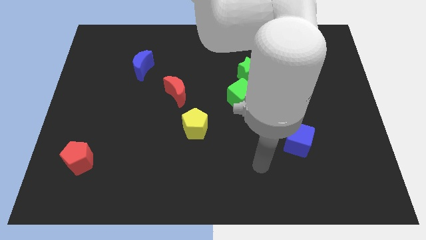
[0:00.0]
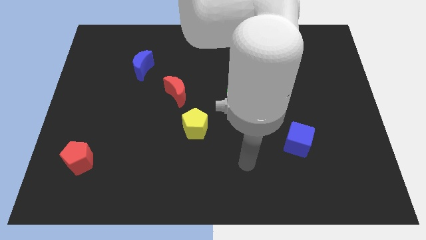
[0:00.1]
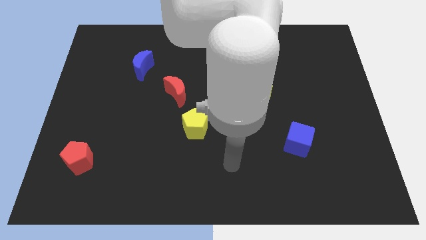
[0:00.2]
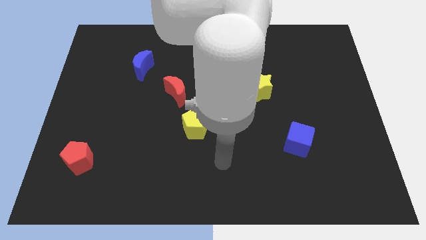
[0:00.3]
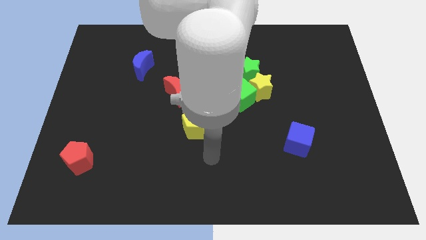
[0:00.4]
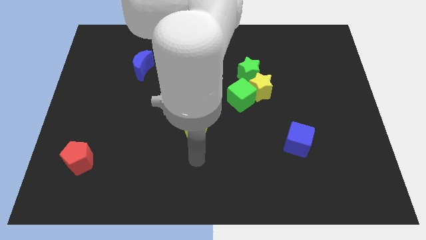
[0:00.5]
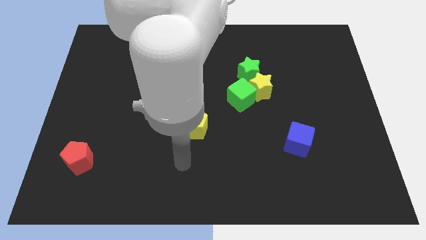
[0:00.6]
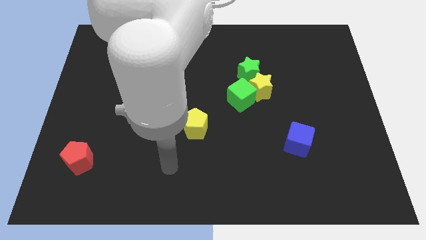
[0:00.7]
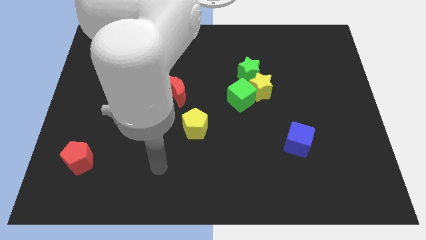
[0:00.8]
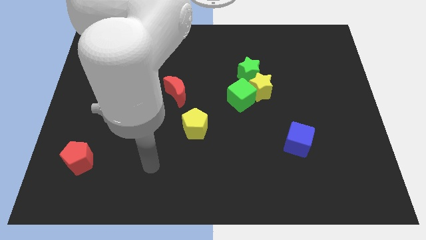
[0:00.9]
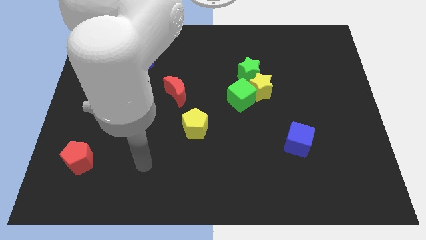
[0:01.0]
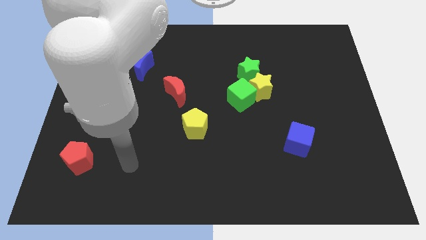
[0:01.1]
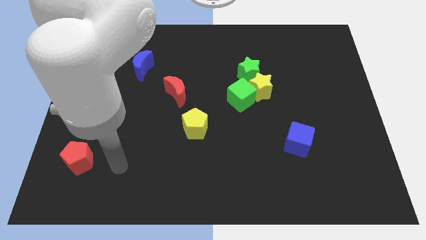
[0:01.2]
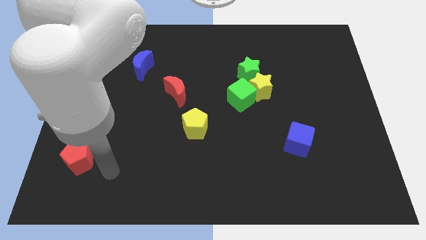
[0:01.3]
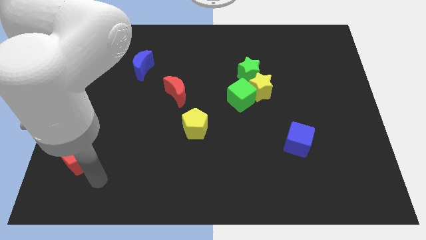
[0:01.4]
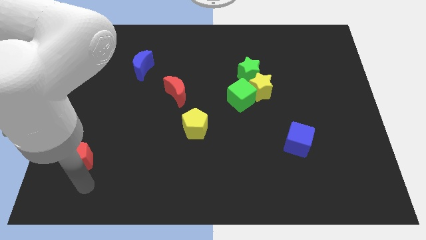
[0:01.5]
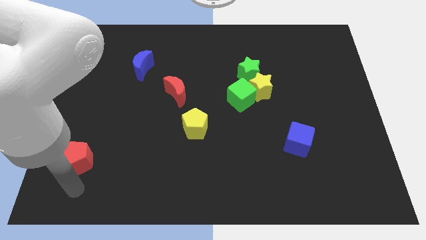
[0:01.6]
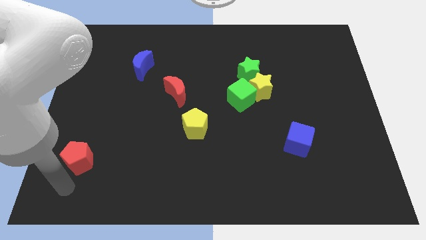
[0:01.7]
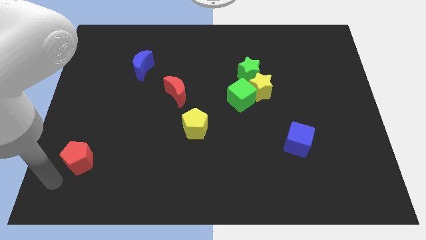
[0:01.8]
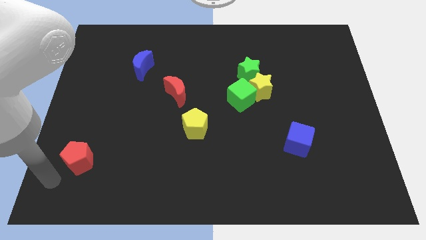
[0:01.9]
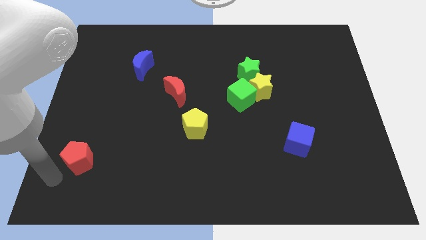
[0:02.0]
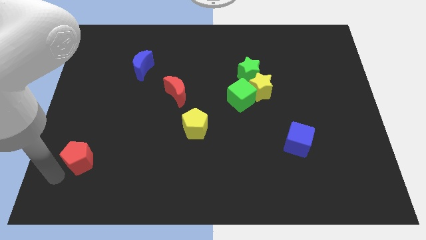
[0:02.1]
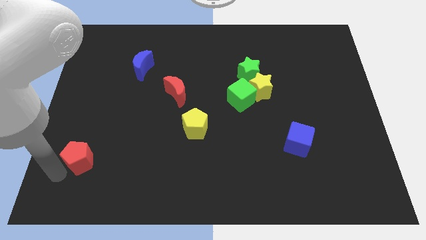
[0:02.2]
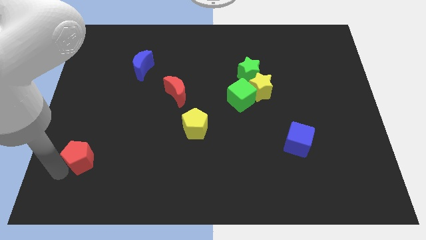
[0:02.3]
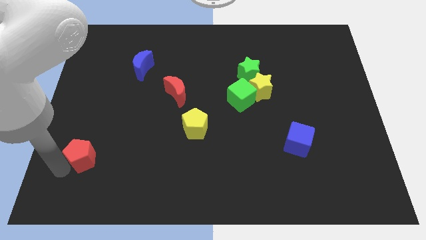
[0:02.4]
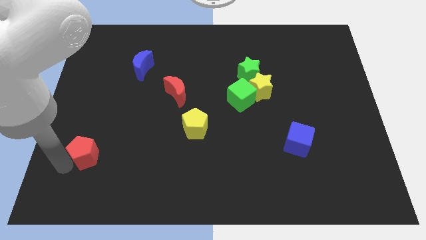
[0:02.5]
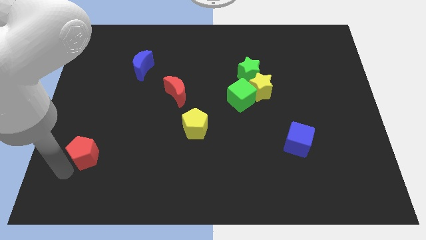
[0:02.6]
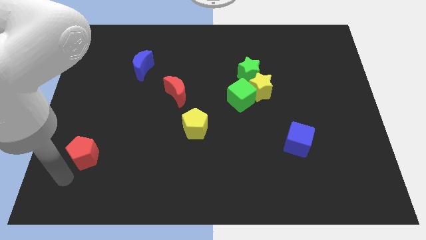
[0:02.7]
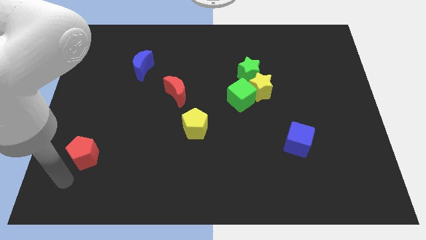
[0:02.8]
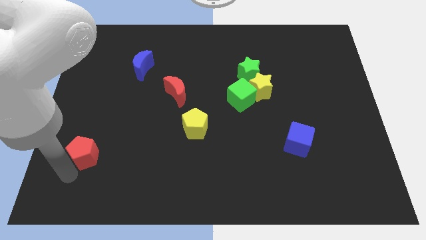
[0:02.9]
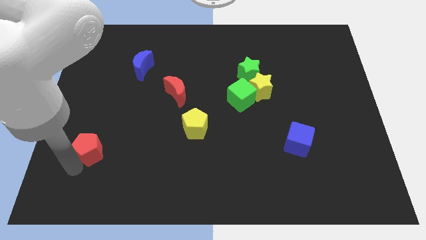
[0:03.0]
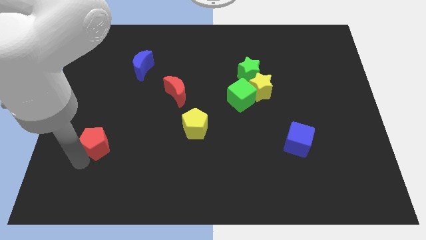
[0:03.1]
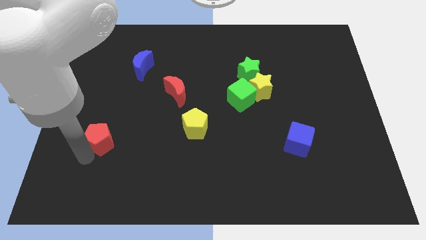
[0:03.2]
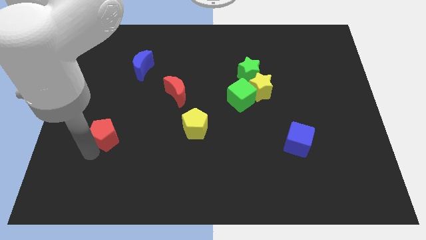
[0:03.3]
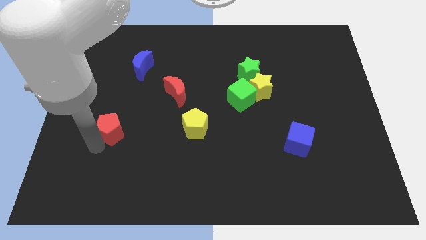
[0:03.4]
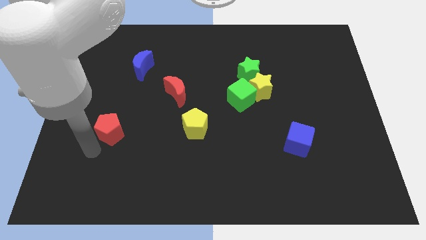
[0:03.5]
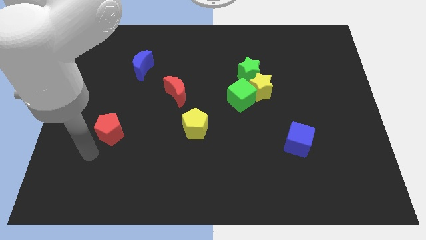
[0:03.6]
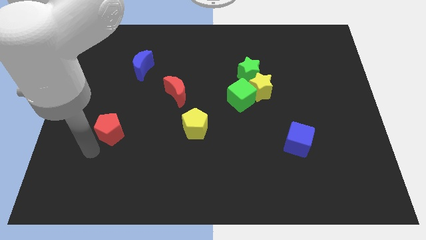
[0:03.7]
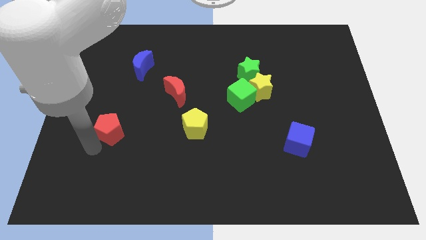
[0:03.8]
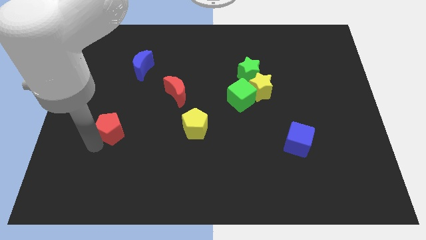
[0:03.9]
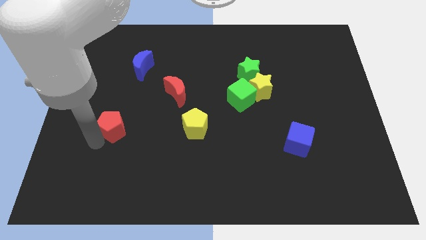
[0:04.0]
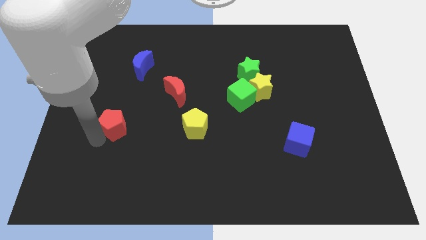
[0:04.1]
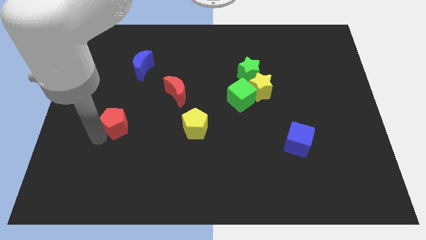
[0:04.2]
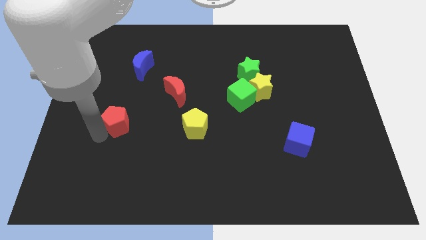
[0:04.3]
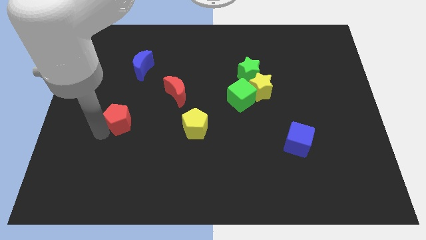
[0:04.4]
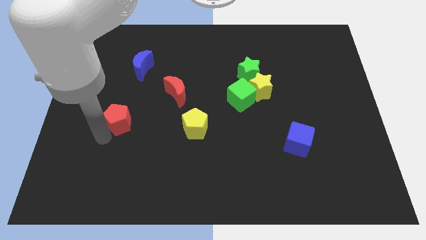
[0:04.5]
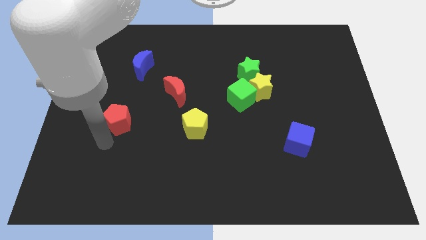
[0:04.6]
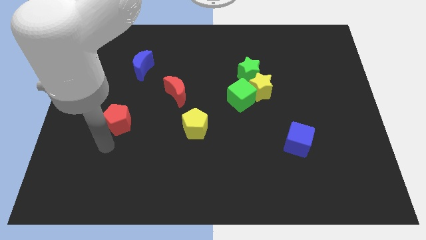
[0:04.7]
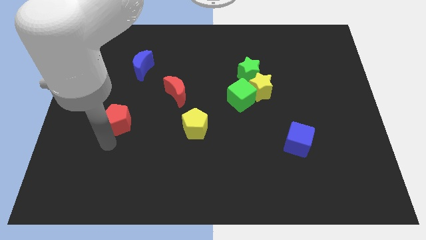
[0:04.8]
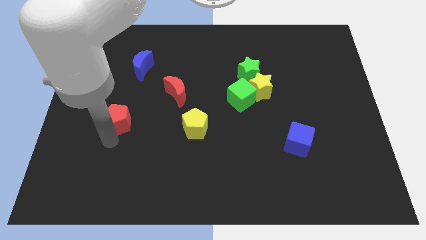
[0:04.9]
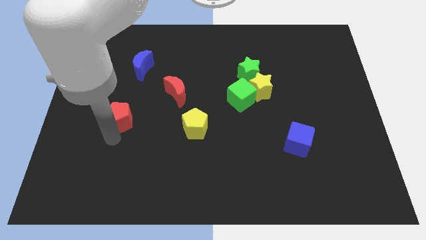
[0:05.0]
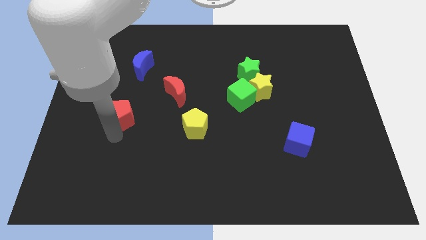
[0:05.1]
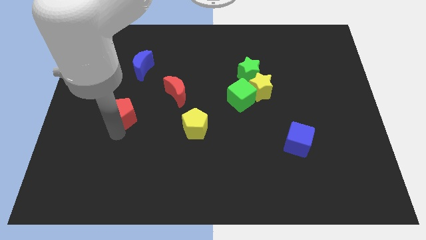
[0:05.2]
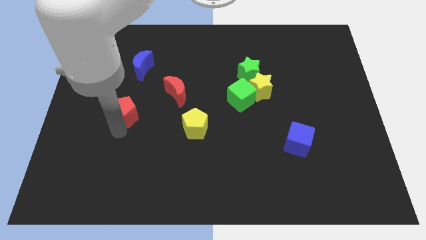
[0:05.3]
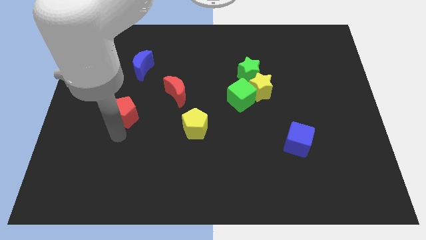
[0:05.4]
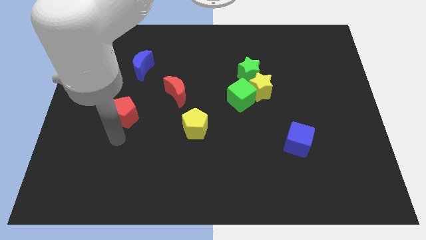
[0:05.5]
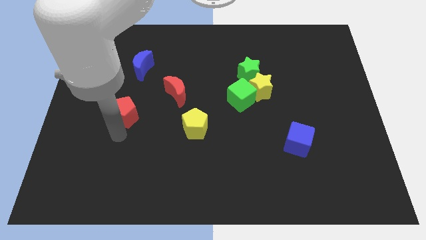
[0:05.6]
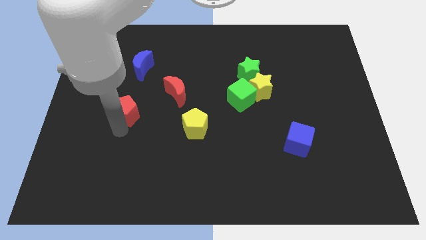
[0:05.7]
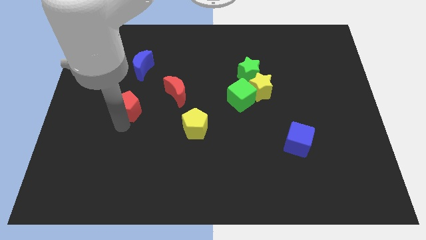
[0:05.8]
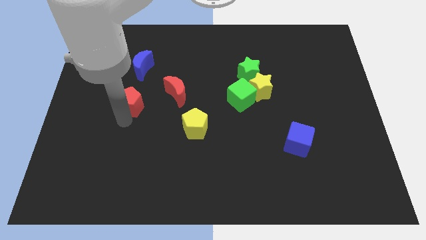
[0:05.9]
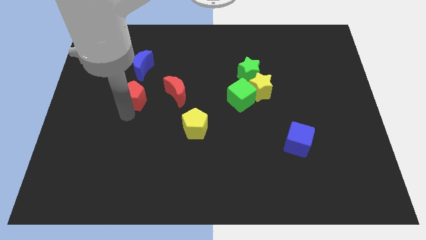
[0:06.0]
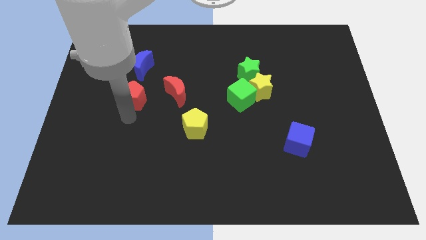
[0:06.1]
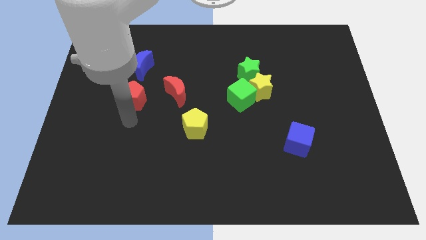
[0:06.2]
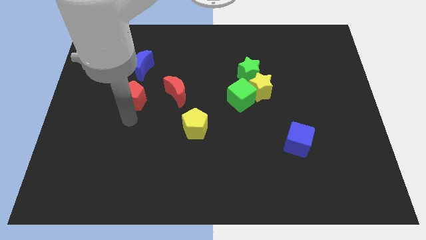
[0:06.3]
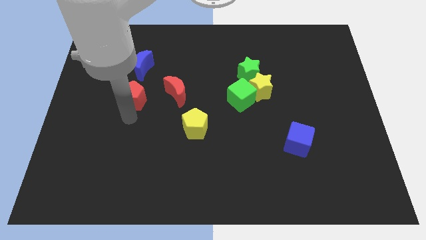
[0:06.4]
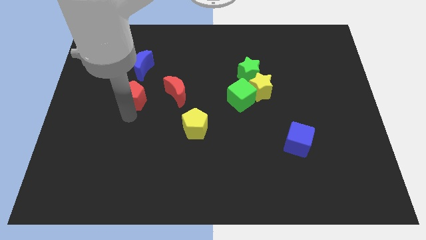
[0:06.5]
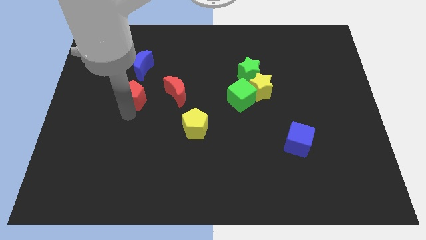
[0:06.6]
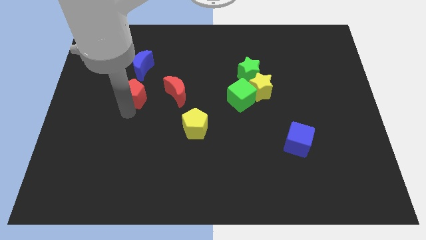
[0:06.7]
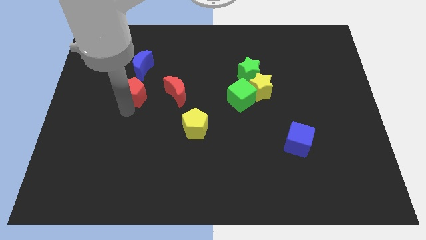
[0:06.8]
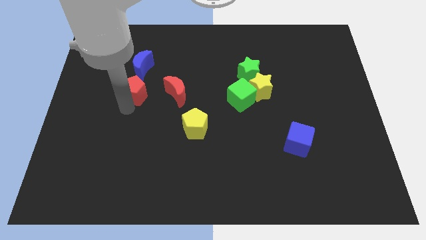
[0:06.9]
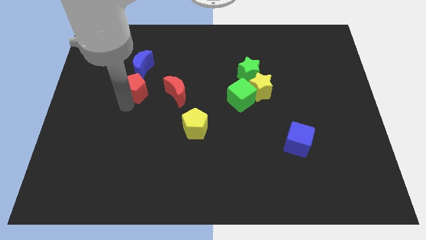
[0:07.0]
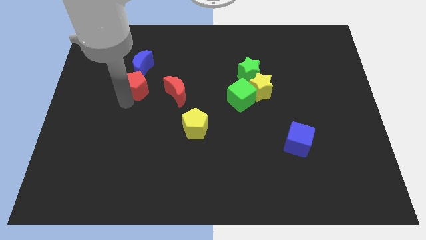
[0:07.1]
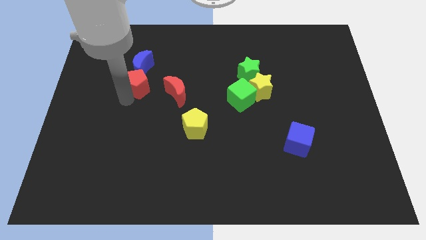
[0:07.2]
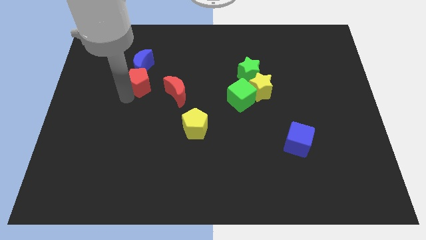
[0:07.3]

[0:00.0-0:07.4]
move the red pentagon to the blue moon
